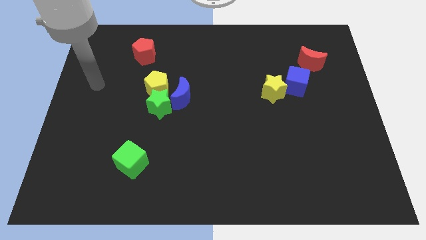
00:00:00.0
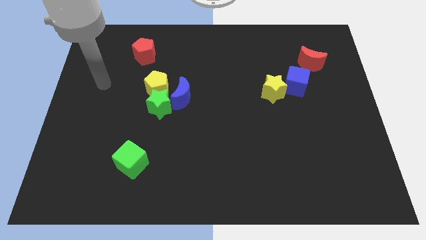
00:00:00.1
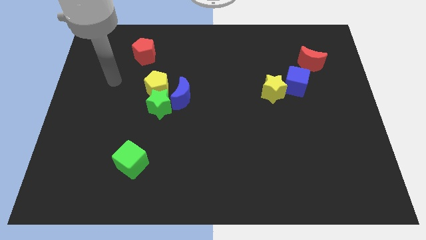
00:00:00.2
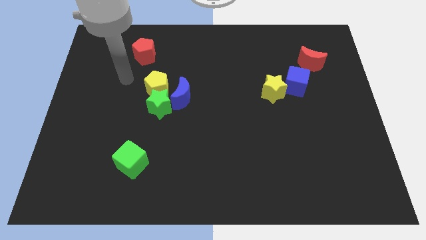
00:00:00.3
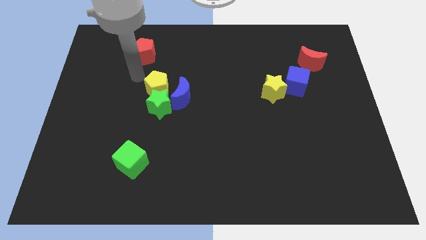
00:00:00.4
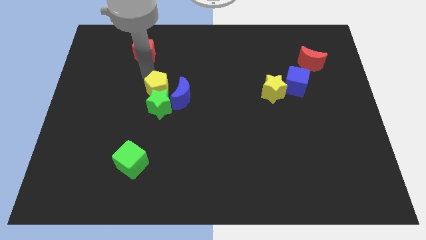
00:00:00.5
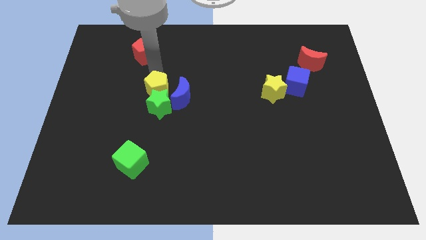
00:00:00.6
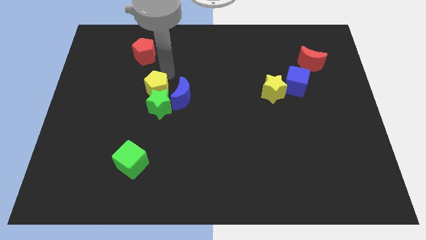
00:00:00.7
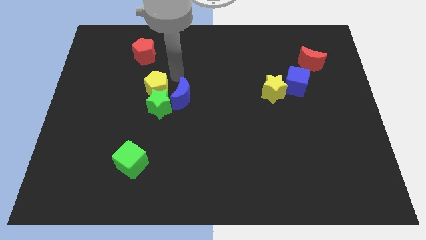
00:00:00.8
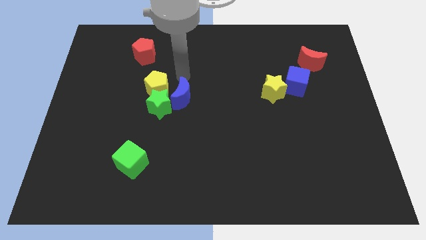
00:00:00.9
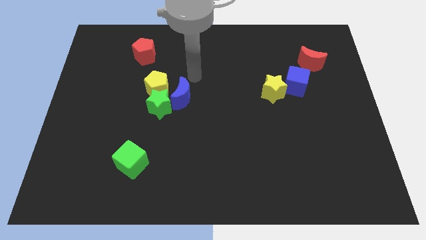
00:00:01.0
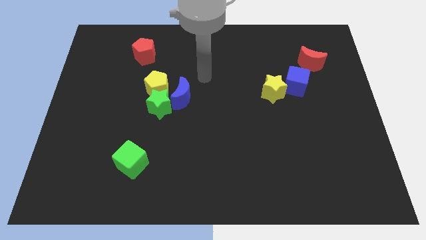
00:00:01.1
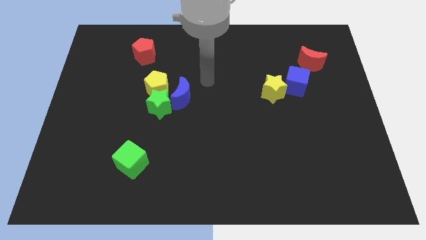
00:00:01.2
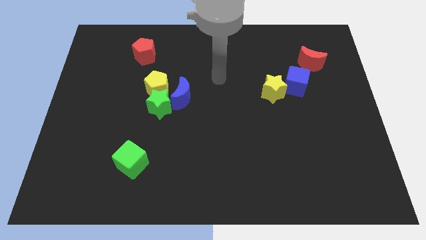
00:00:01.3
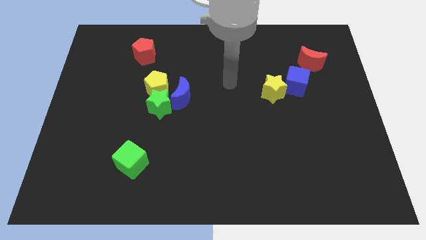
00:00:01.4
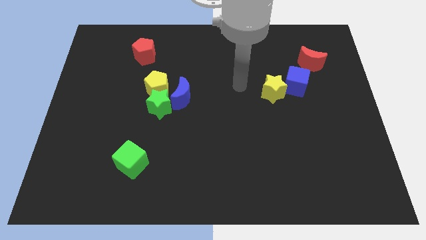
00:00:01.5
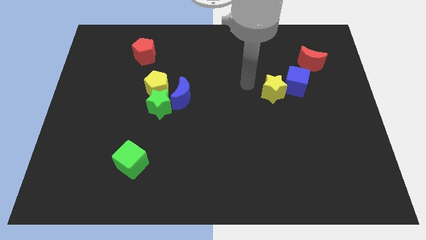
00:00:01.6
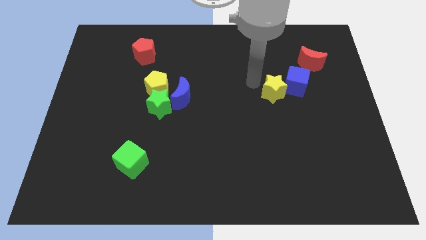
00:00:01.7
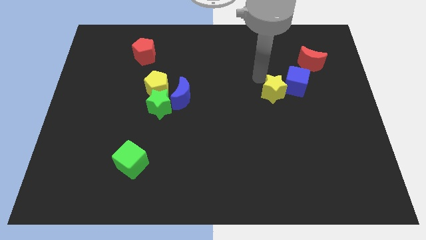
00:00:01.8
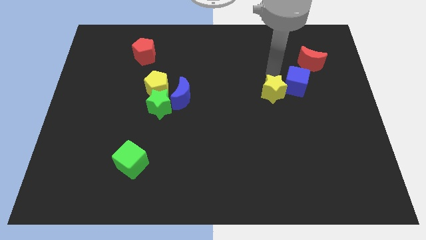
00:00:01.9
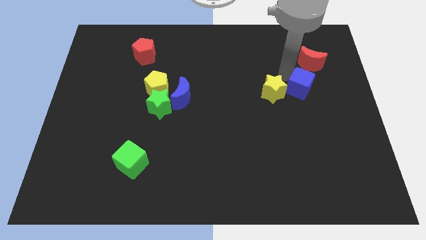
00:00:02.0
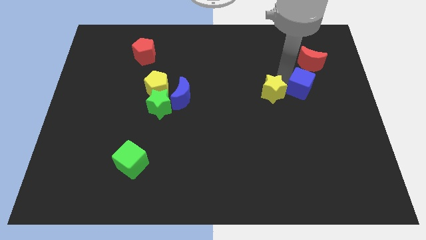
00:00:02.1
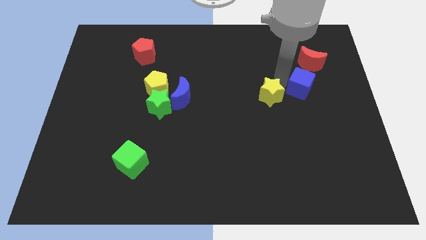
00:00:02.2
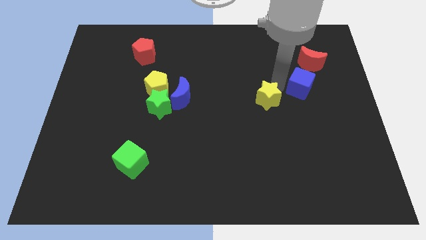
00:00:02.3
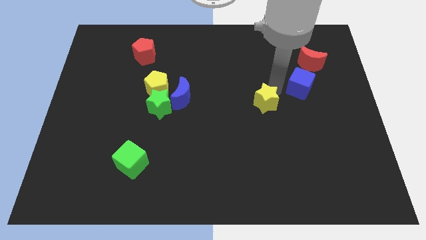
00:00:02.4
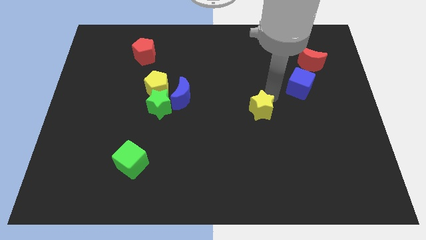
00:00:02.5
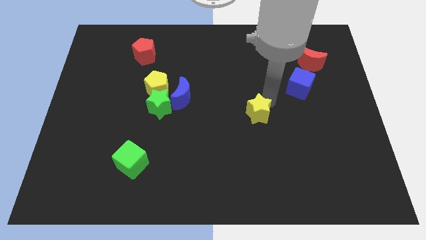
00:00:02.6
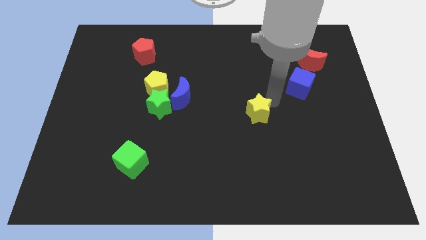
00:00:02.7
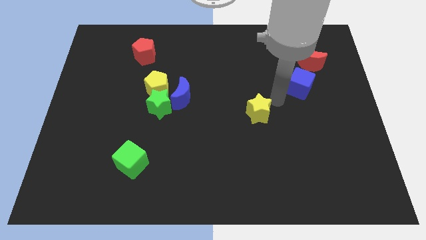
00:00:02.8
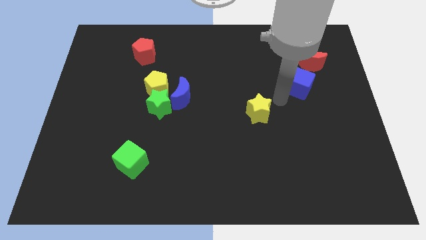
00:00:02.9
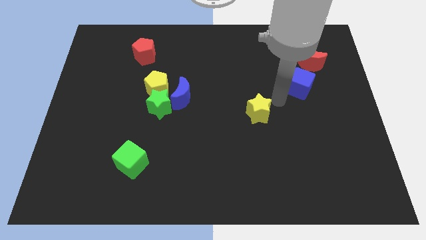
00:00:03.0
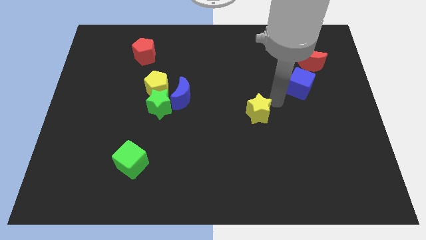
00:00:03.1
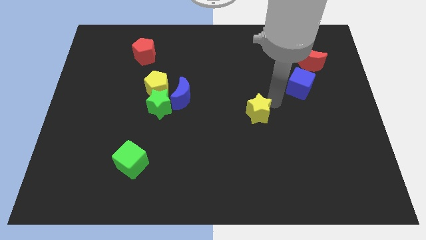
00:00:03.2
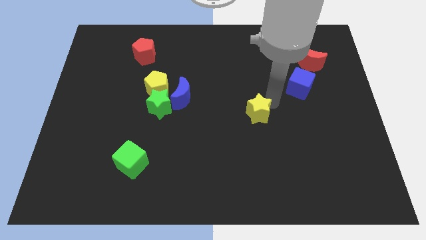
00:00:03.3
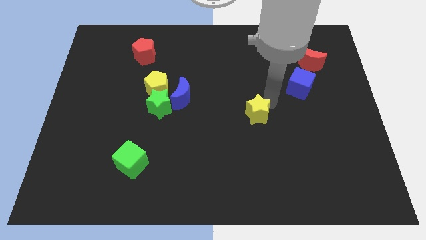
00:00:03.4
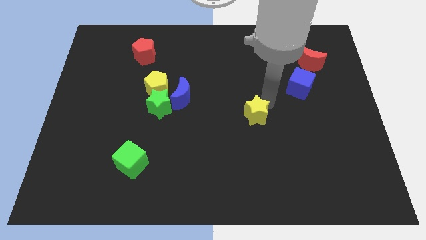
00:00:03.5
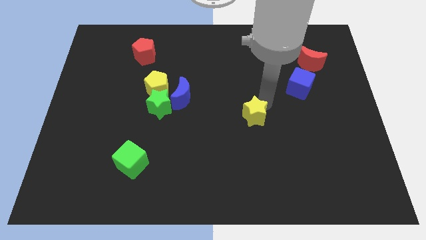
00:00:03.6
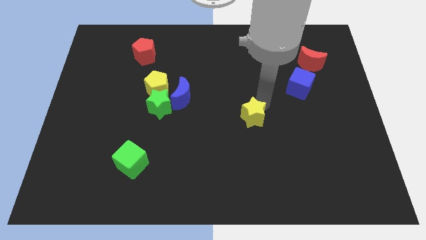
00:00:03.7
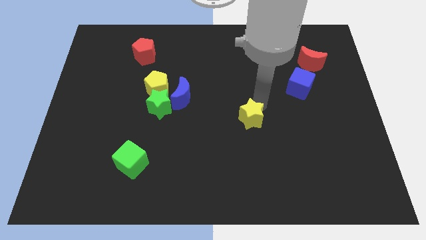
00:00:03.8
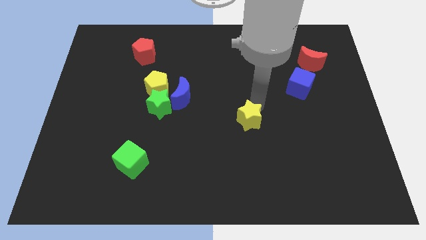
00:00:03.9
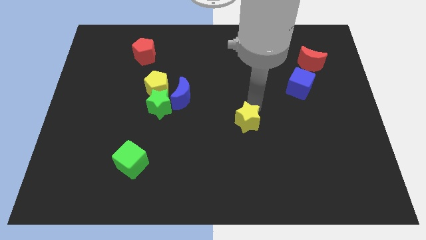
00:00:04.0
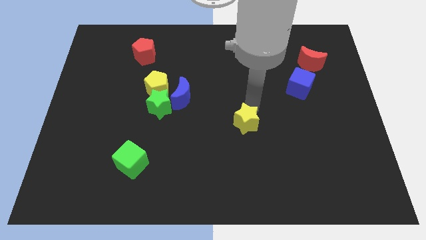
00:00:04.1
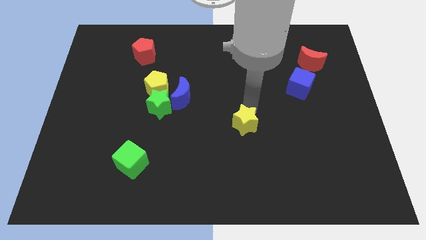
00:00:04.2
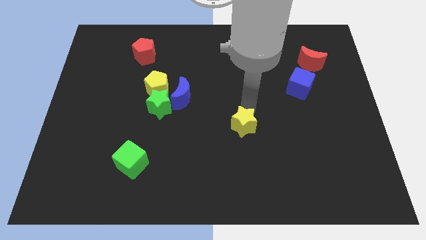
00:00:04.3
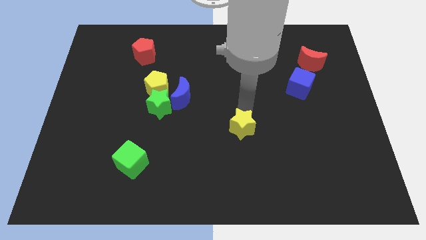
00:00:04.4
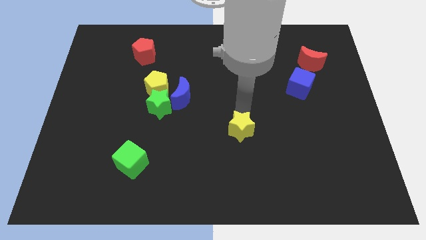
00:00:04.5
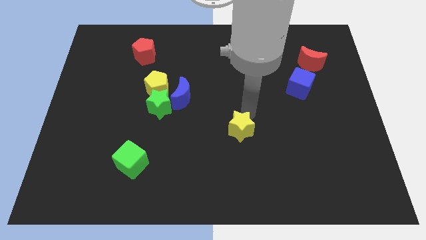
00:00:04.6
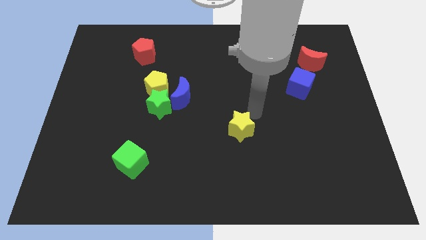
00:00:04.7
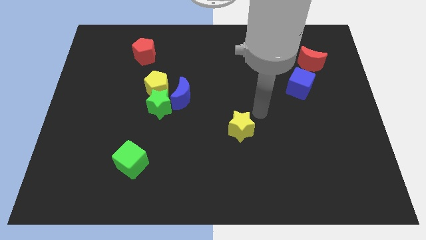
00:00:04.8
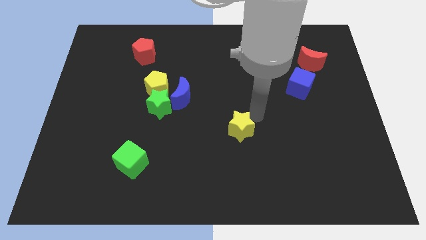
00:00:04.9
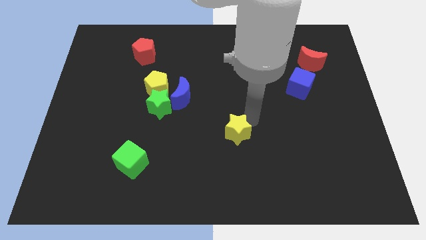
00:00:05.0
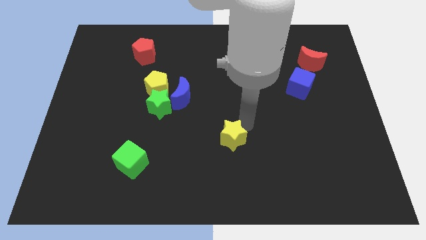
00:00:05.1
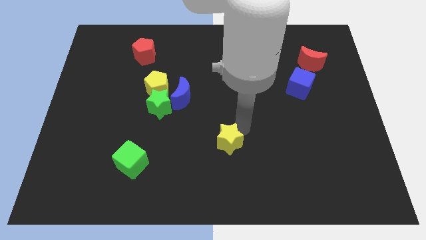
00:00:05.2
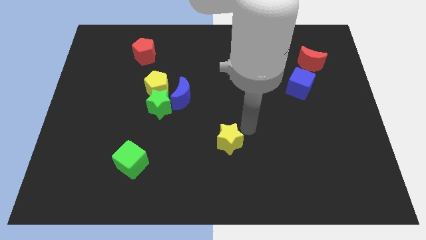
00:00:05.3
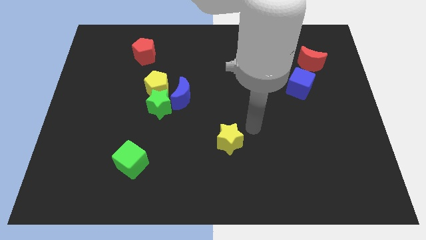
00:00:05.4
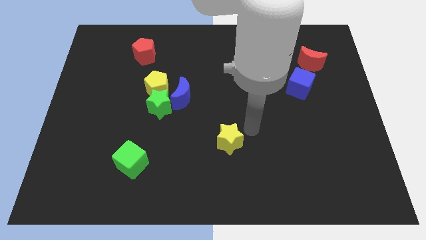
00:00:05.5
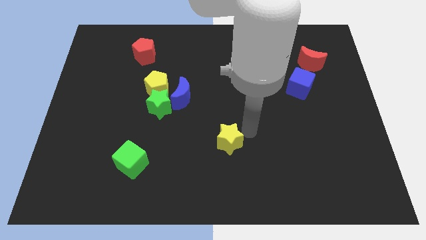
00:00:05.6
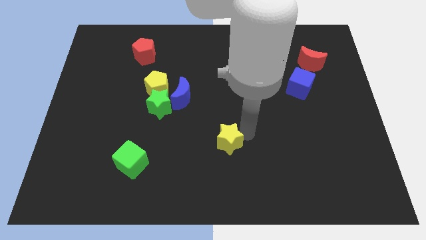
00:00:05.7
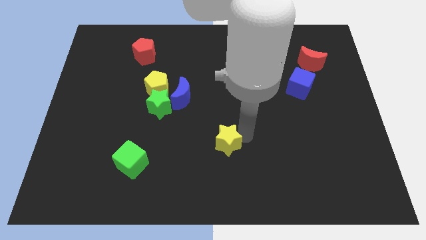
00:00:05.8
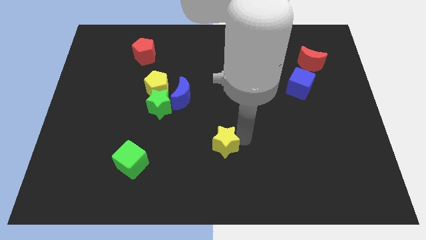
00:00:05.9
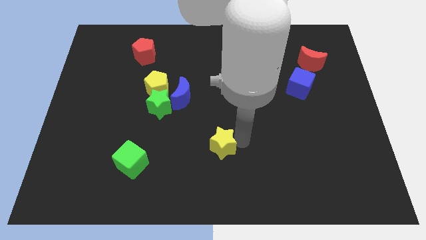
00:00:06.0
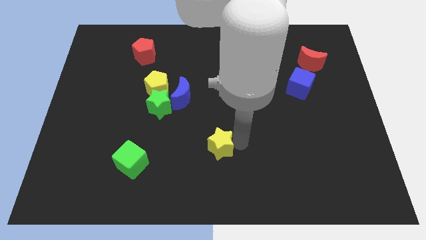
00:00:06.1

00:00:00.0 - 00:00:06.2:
push the yellow star down and left diagonally

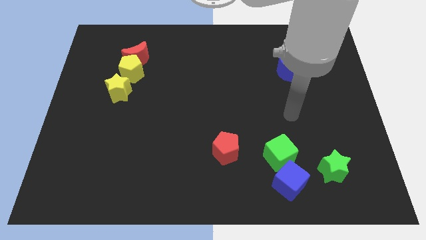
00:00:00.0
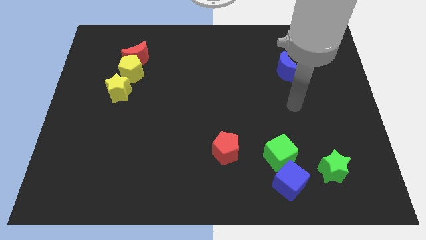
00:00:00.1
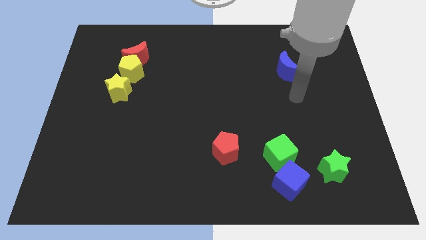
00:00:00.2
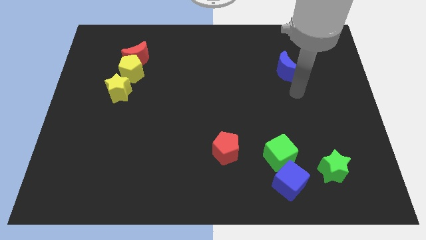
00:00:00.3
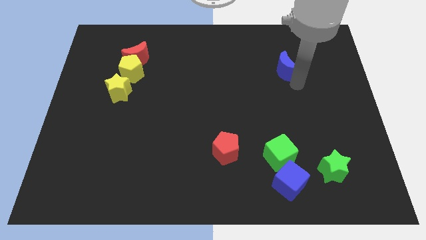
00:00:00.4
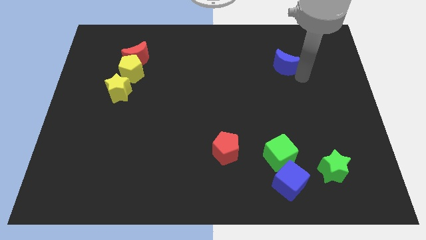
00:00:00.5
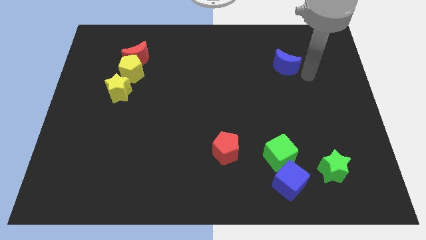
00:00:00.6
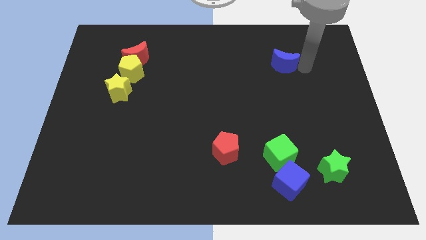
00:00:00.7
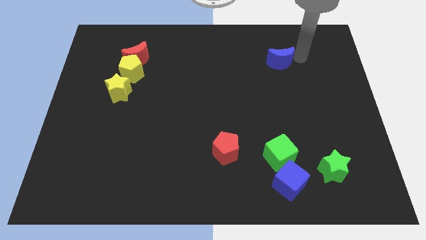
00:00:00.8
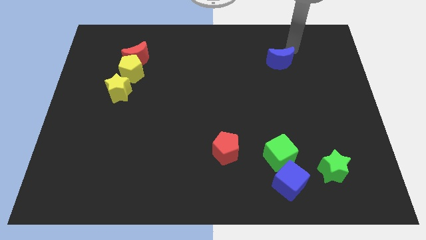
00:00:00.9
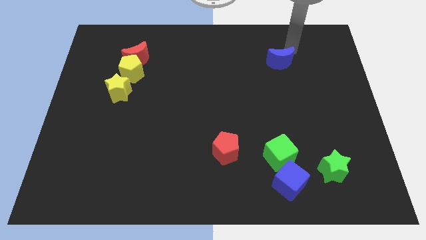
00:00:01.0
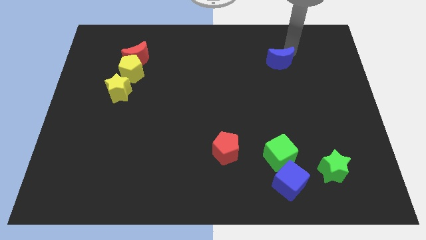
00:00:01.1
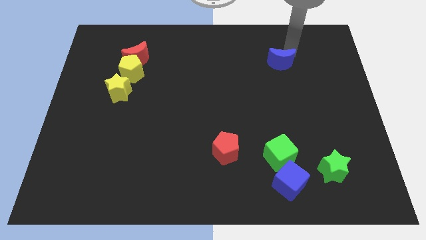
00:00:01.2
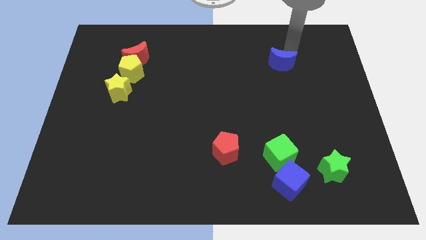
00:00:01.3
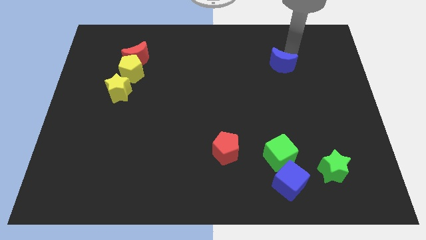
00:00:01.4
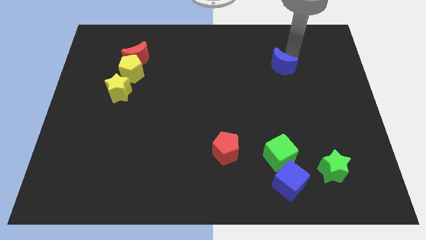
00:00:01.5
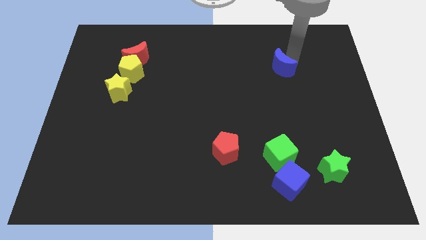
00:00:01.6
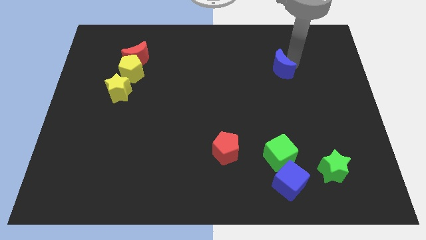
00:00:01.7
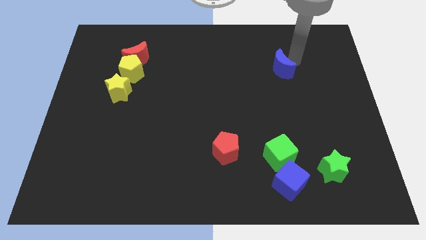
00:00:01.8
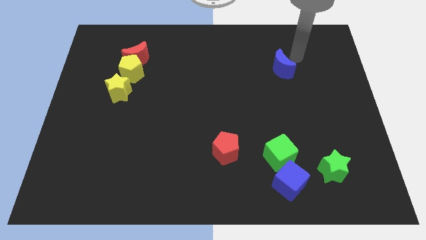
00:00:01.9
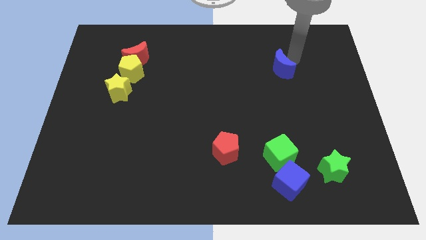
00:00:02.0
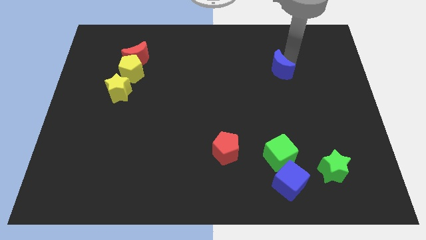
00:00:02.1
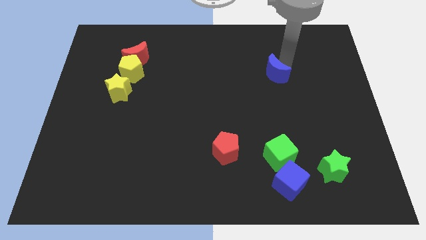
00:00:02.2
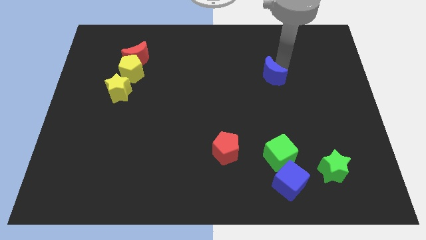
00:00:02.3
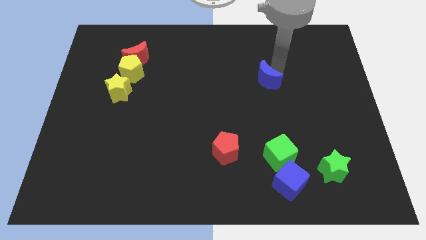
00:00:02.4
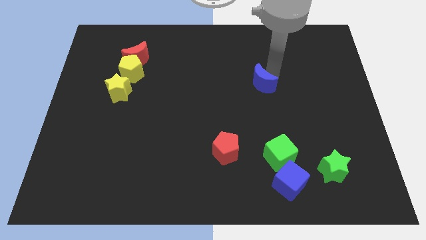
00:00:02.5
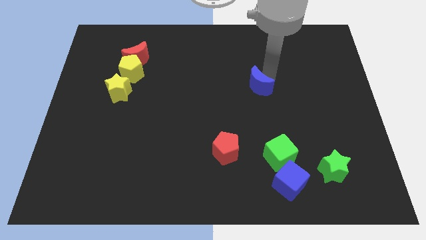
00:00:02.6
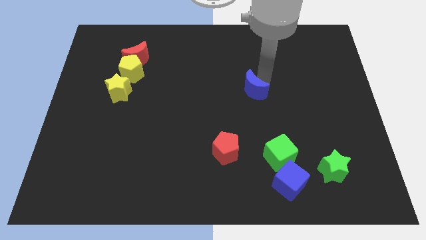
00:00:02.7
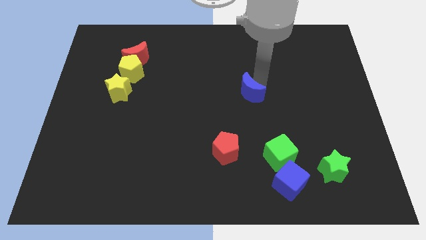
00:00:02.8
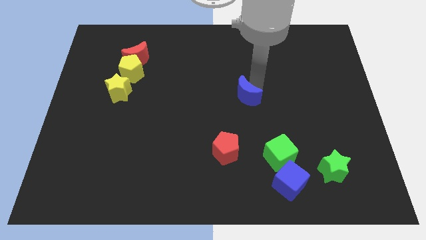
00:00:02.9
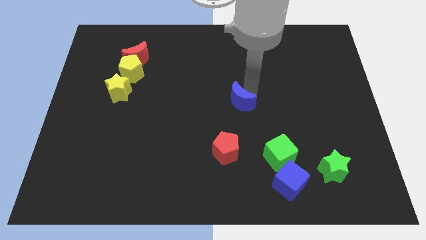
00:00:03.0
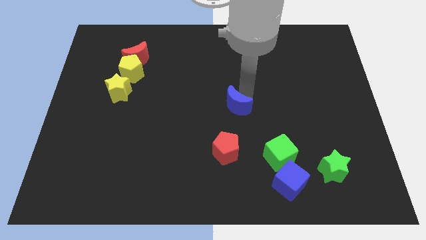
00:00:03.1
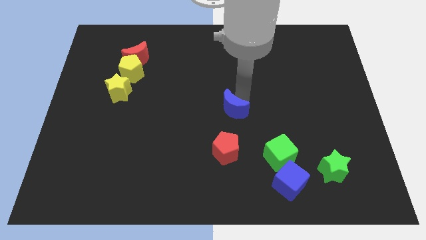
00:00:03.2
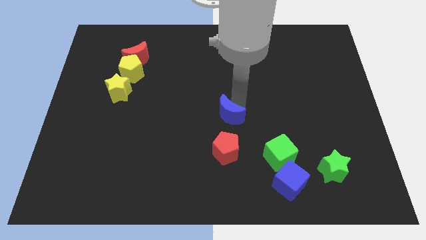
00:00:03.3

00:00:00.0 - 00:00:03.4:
push the blue moon downwards and then left
